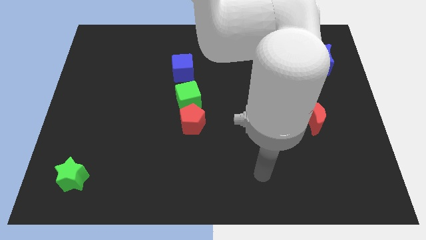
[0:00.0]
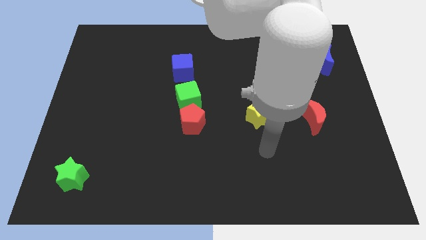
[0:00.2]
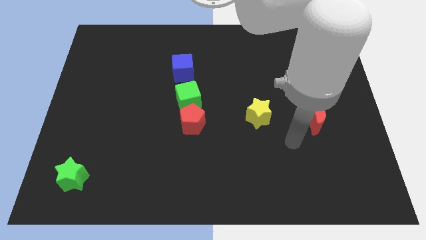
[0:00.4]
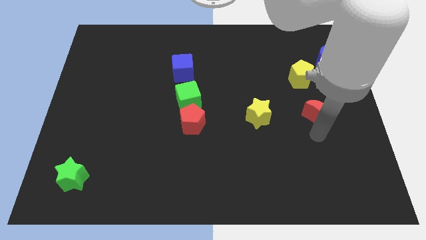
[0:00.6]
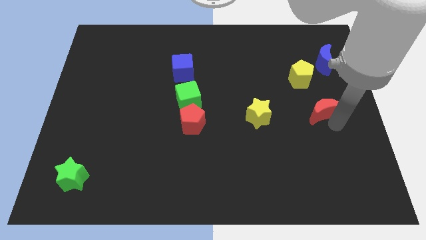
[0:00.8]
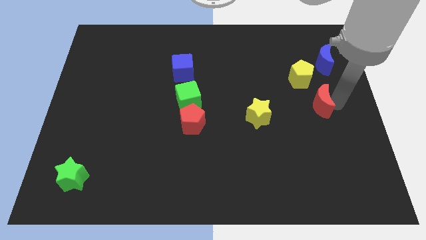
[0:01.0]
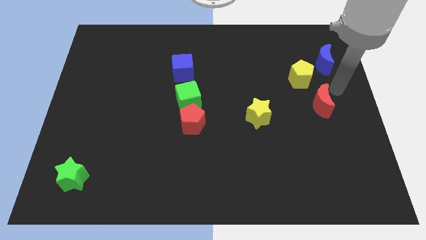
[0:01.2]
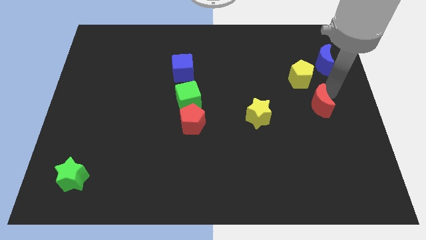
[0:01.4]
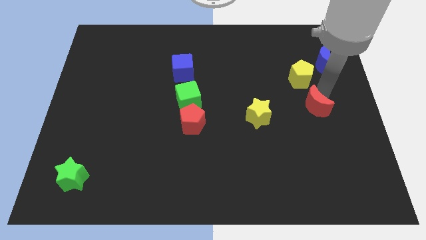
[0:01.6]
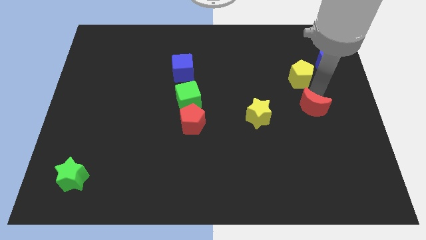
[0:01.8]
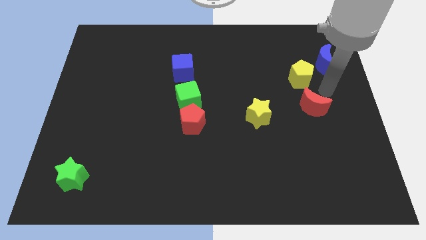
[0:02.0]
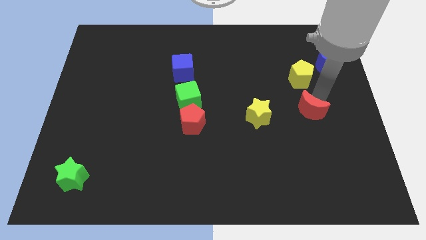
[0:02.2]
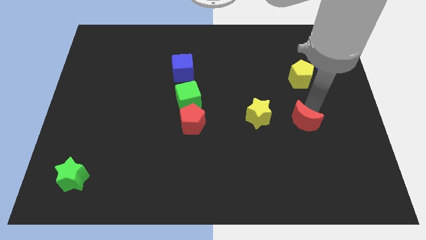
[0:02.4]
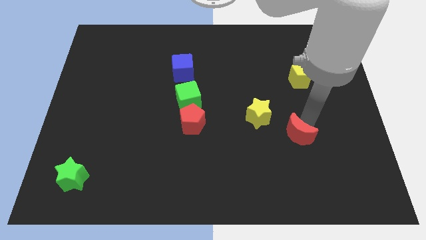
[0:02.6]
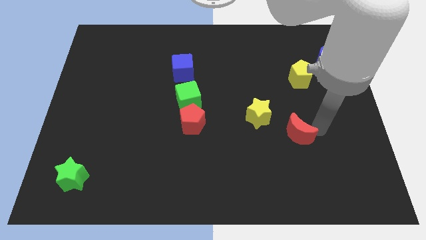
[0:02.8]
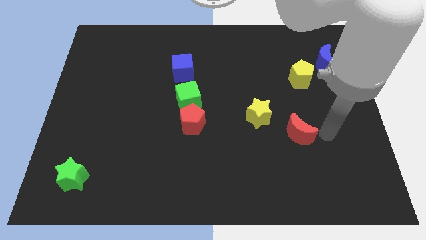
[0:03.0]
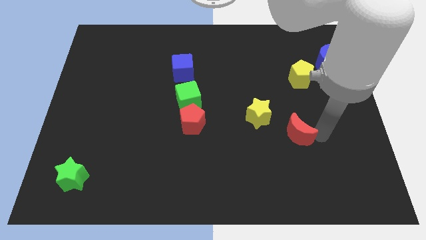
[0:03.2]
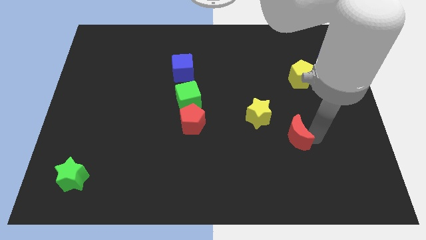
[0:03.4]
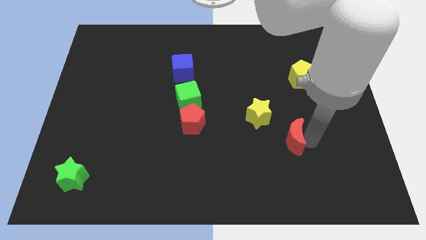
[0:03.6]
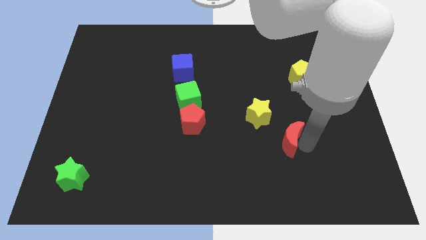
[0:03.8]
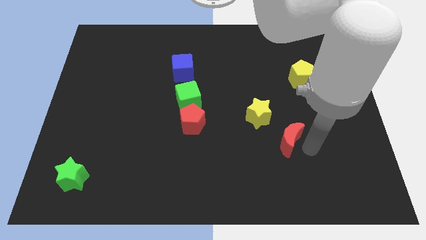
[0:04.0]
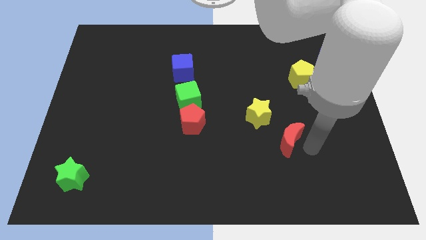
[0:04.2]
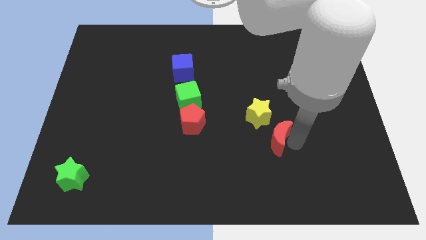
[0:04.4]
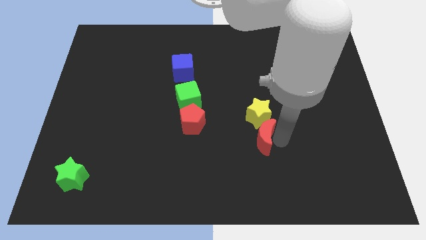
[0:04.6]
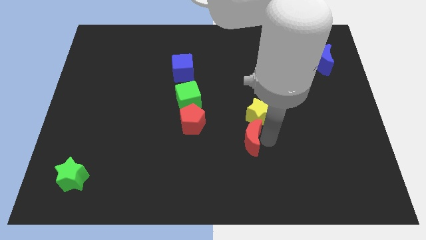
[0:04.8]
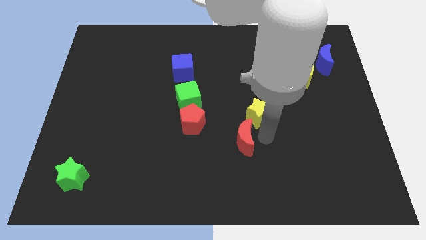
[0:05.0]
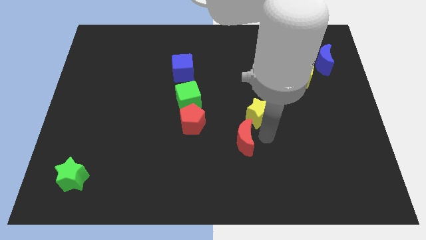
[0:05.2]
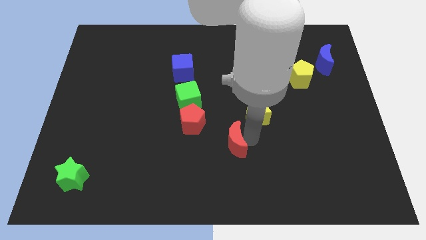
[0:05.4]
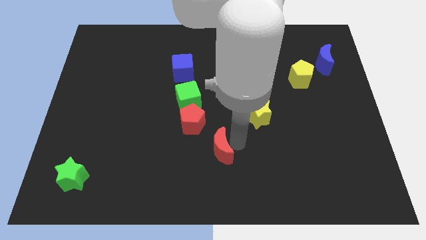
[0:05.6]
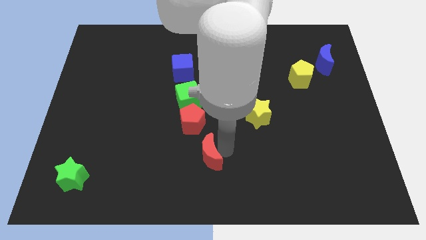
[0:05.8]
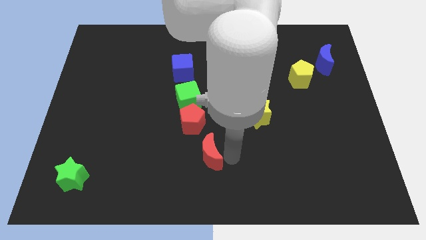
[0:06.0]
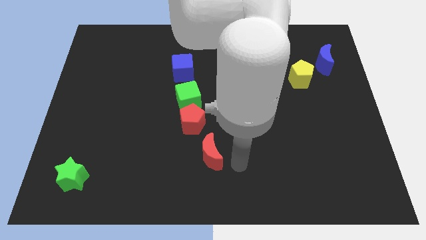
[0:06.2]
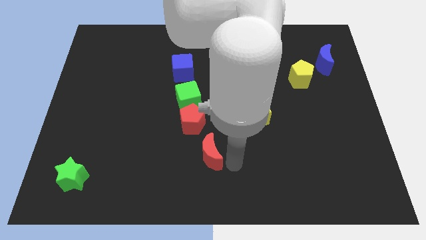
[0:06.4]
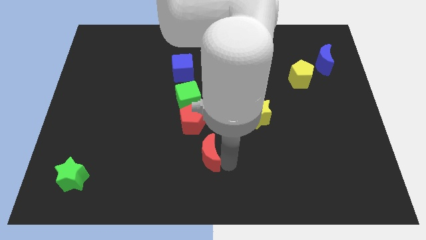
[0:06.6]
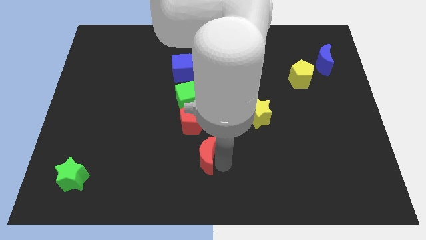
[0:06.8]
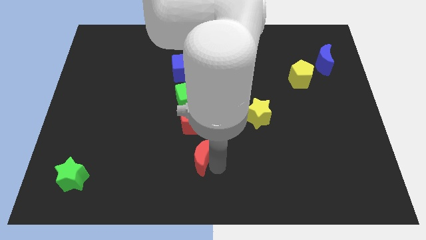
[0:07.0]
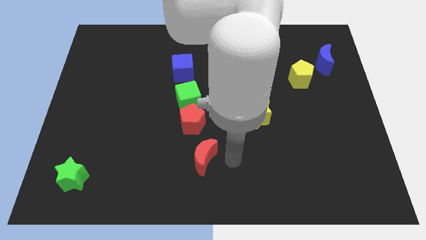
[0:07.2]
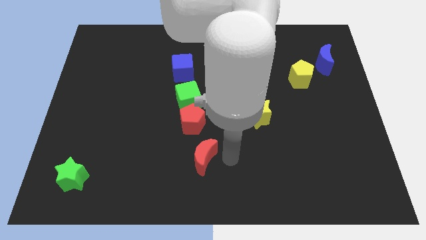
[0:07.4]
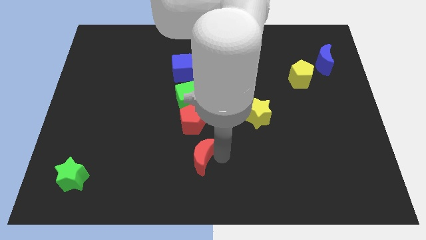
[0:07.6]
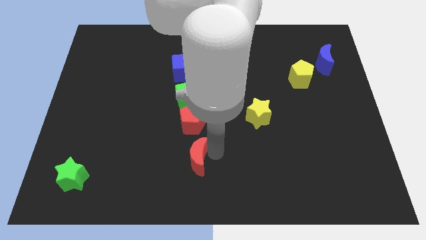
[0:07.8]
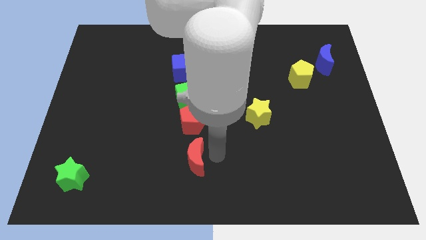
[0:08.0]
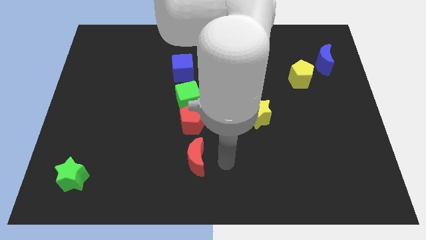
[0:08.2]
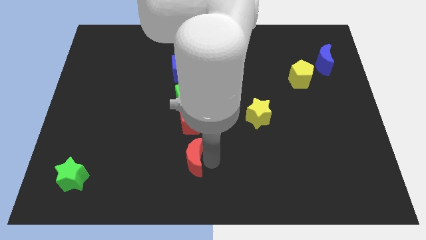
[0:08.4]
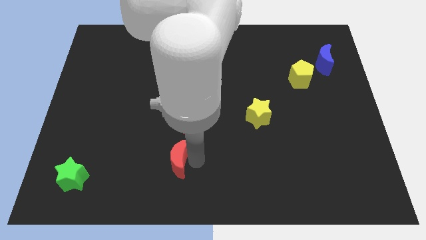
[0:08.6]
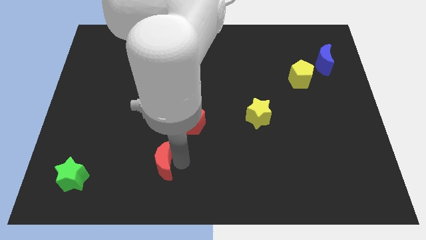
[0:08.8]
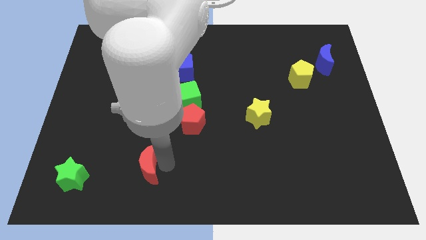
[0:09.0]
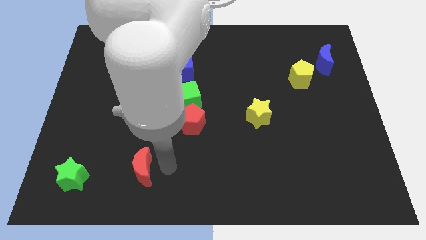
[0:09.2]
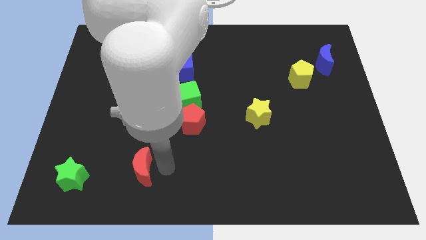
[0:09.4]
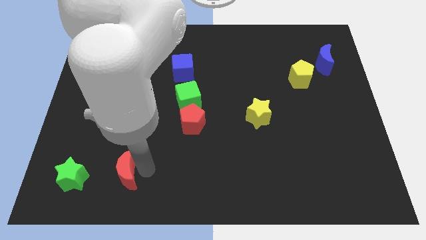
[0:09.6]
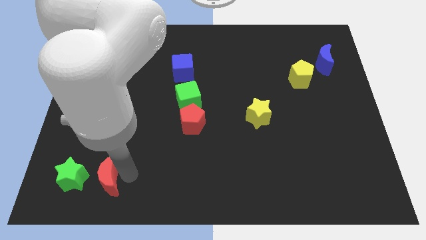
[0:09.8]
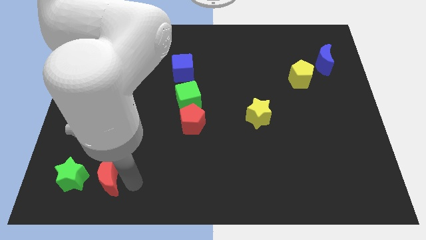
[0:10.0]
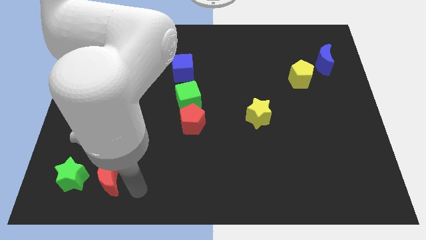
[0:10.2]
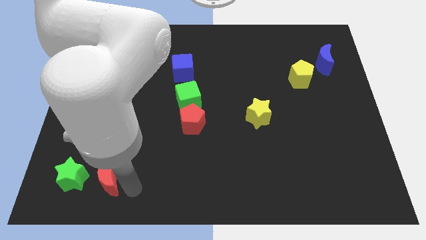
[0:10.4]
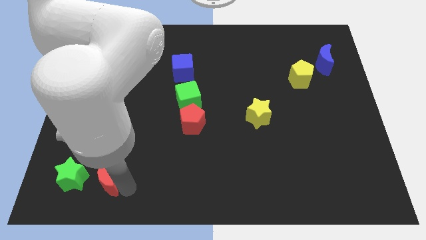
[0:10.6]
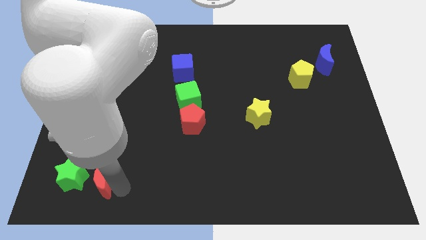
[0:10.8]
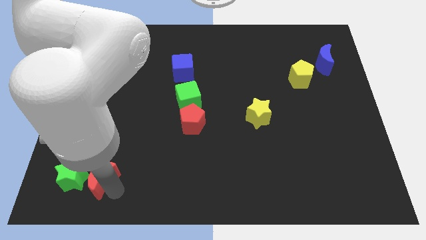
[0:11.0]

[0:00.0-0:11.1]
move the red moon to the green star

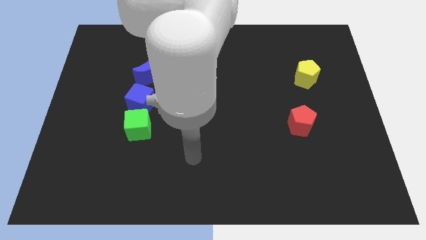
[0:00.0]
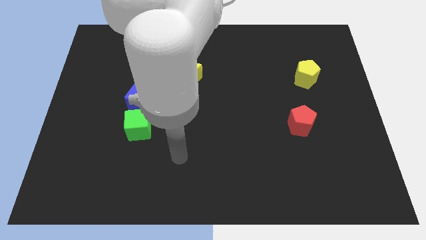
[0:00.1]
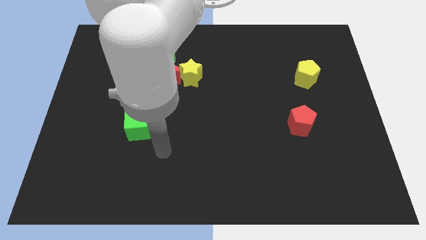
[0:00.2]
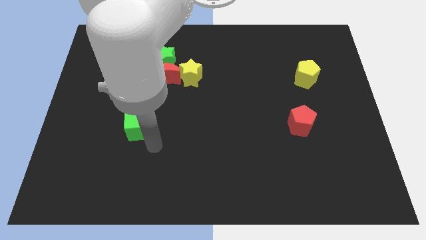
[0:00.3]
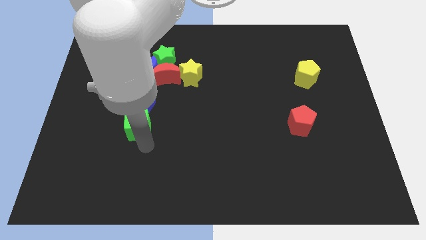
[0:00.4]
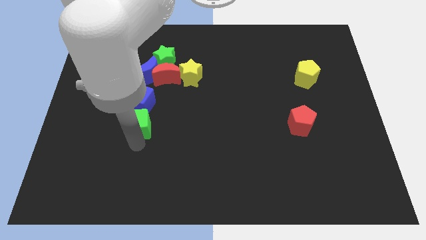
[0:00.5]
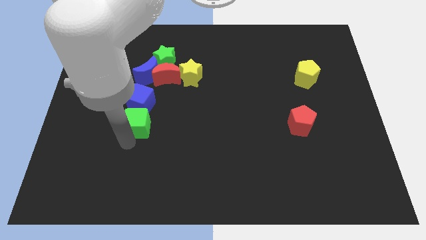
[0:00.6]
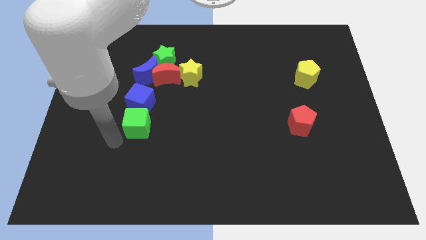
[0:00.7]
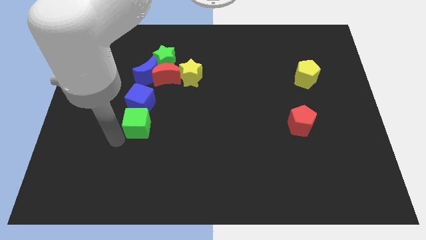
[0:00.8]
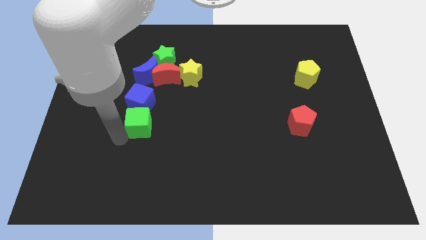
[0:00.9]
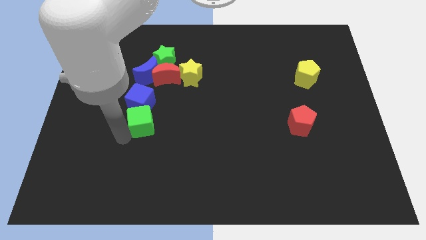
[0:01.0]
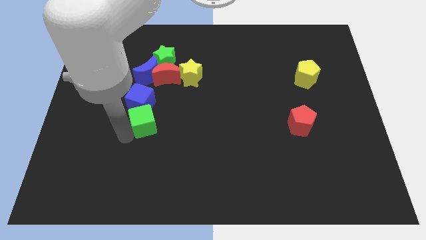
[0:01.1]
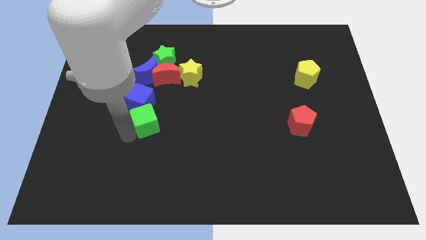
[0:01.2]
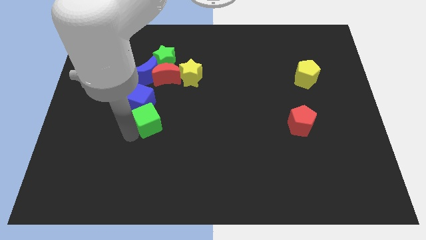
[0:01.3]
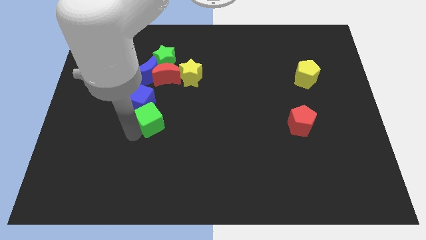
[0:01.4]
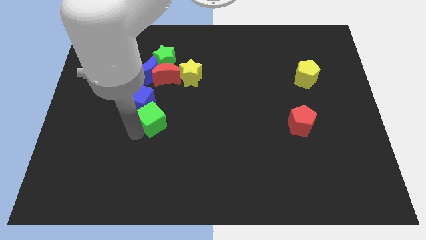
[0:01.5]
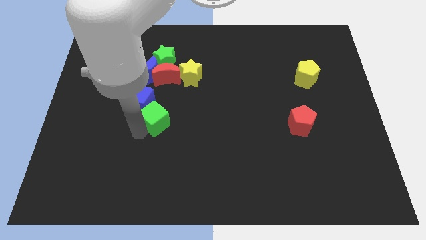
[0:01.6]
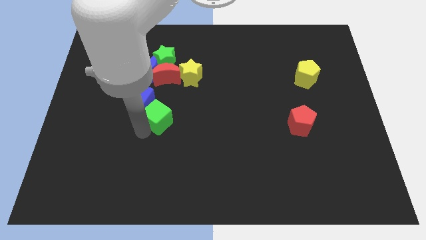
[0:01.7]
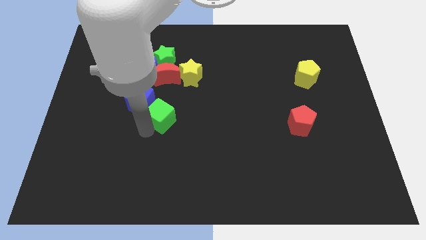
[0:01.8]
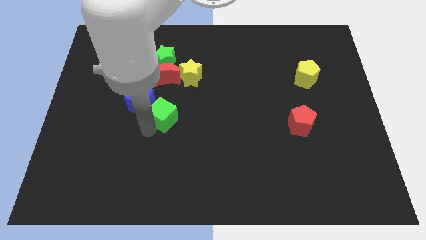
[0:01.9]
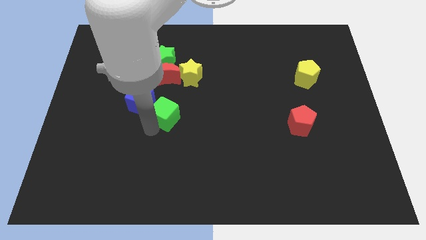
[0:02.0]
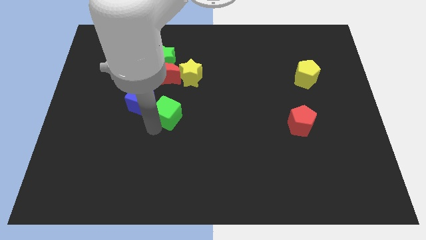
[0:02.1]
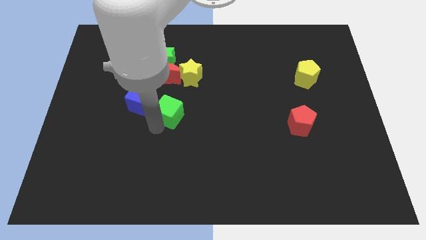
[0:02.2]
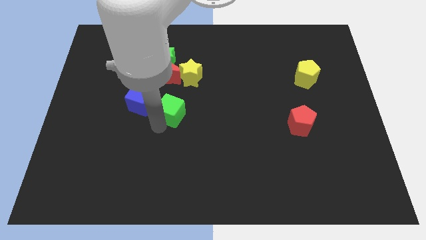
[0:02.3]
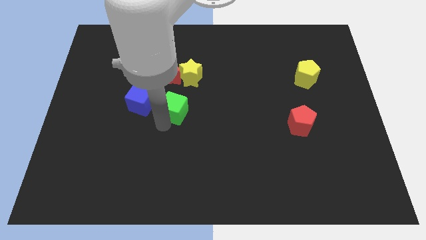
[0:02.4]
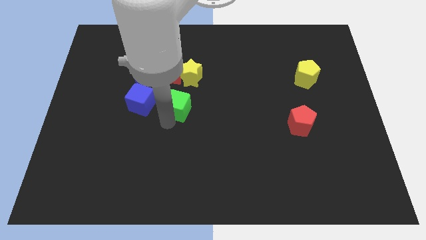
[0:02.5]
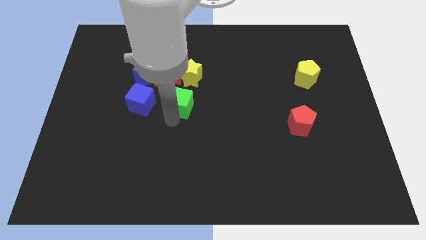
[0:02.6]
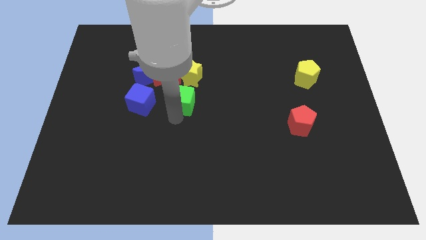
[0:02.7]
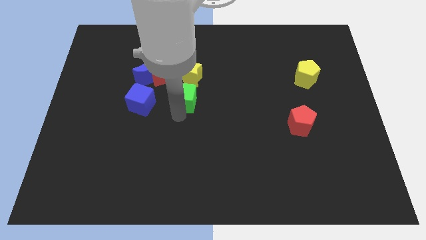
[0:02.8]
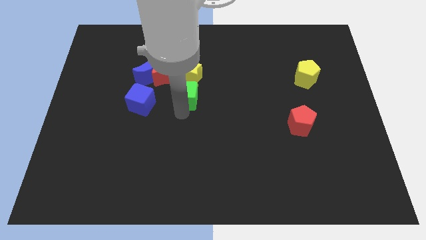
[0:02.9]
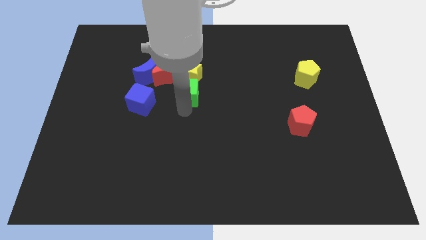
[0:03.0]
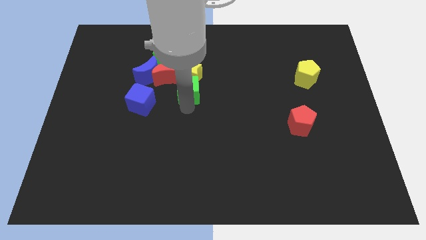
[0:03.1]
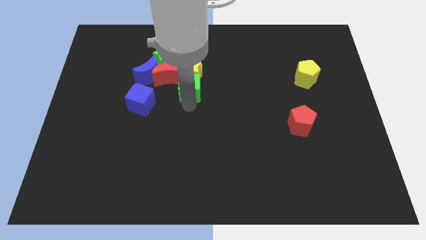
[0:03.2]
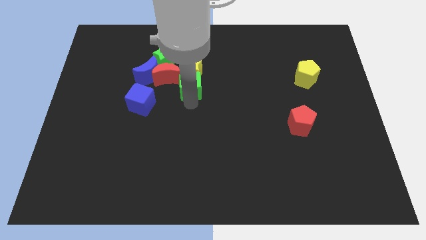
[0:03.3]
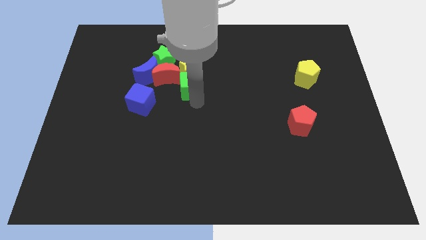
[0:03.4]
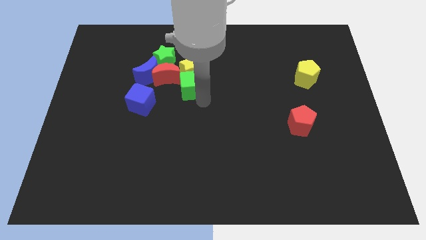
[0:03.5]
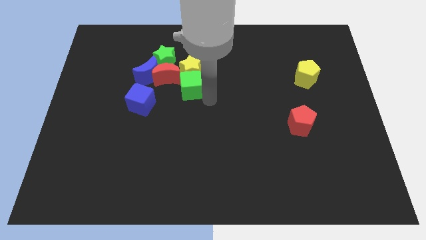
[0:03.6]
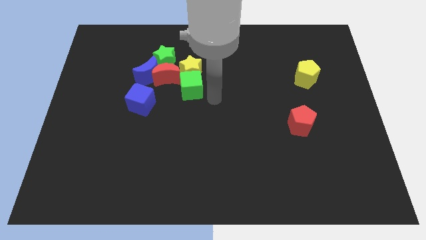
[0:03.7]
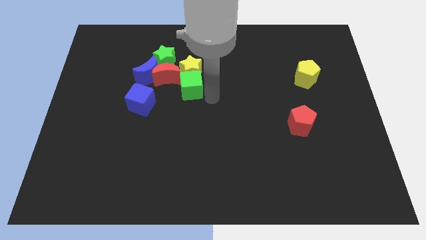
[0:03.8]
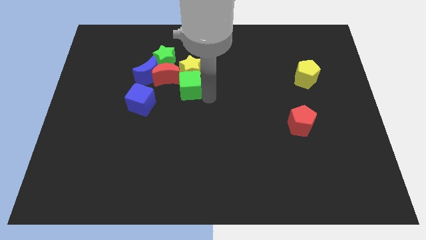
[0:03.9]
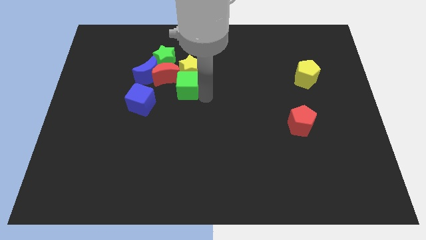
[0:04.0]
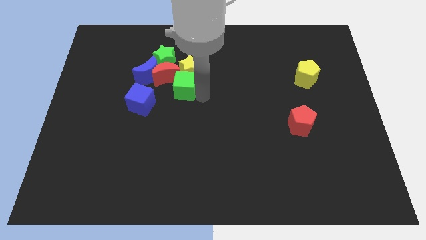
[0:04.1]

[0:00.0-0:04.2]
put the green cube close to the red moon
